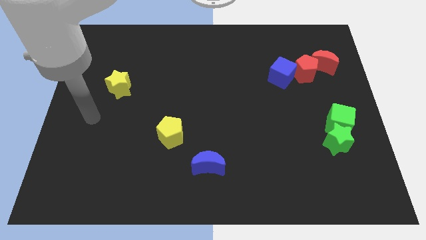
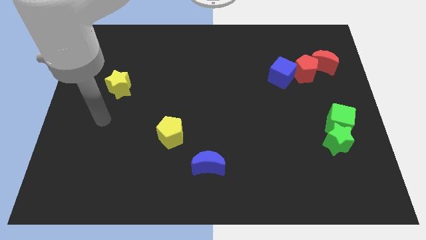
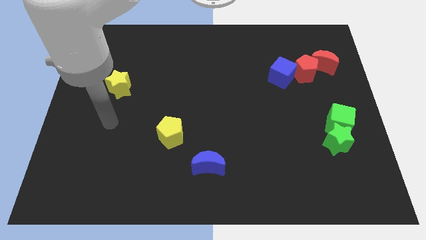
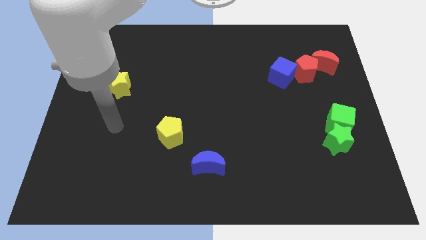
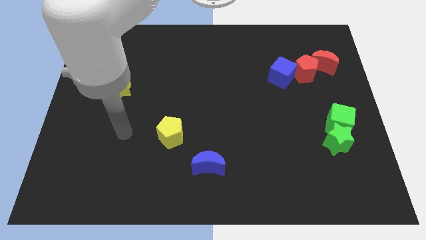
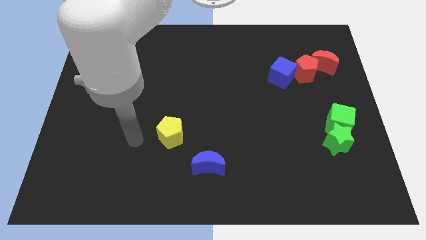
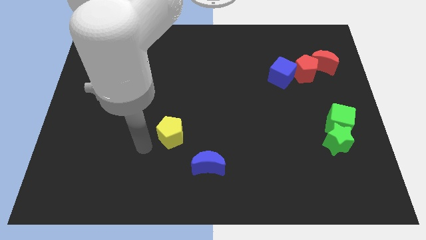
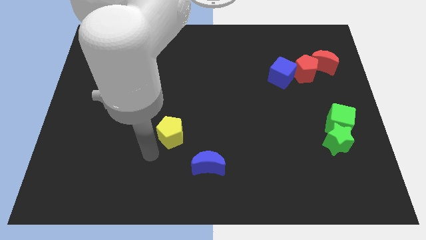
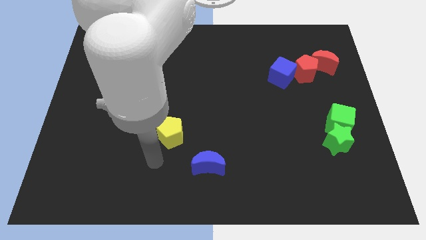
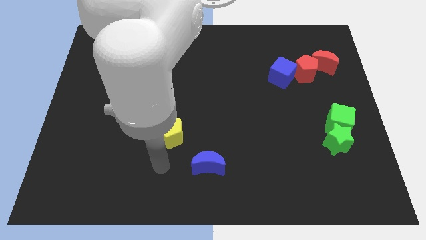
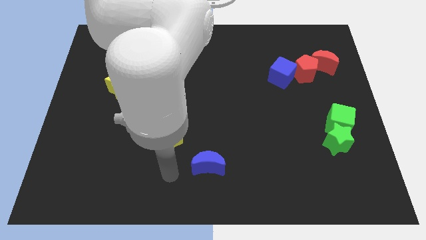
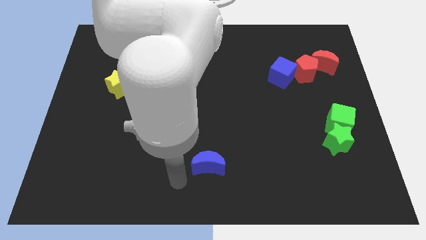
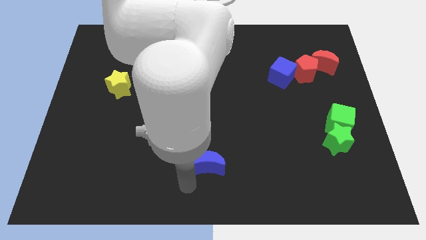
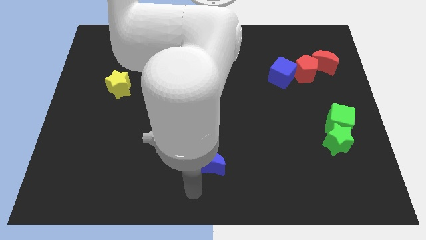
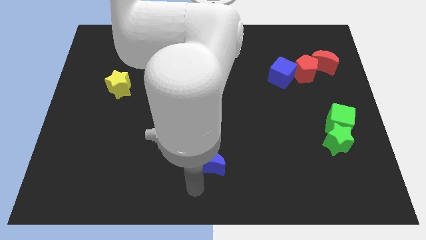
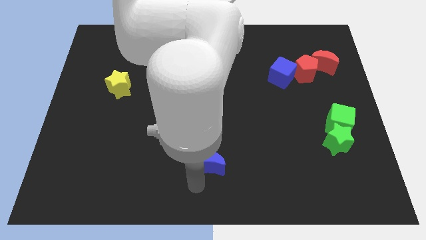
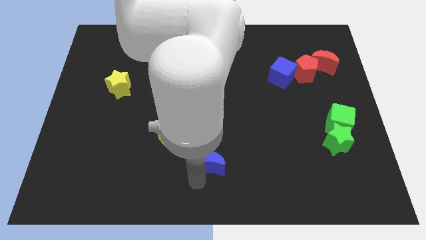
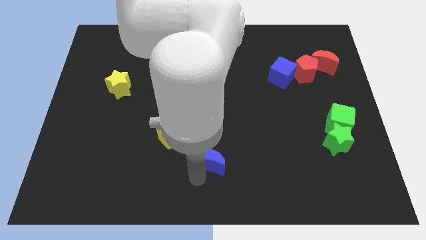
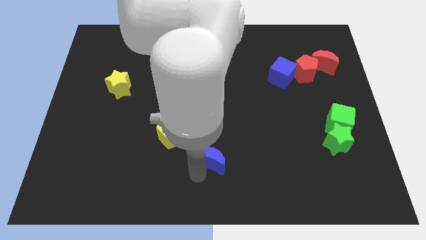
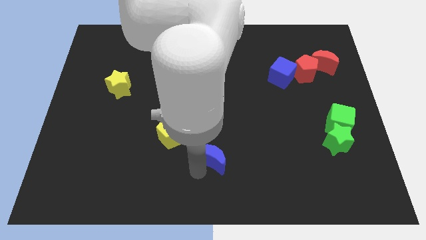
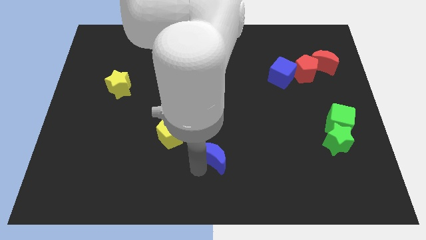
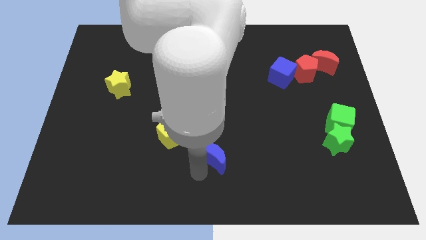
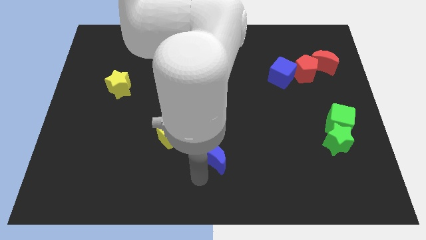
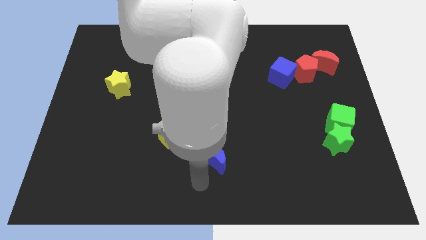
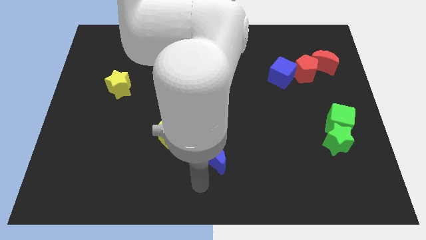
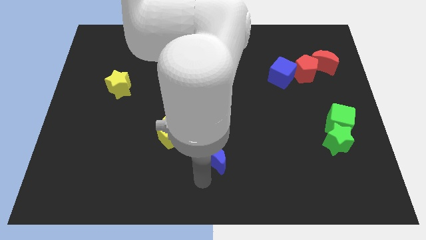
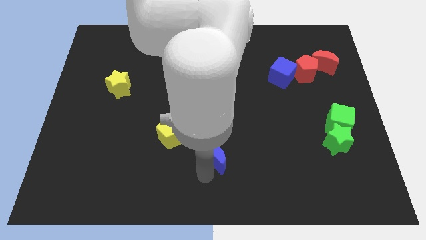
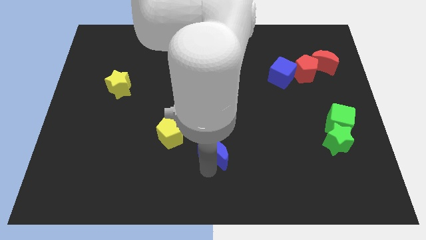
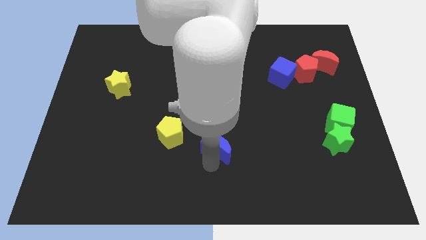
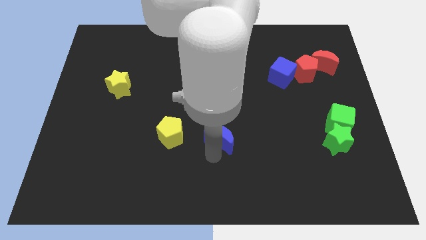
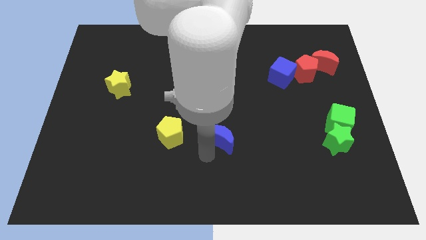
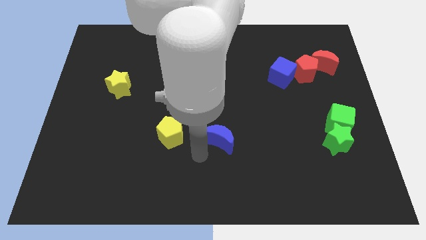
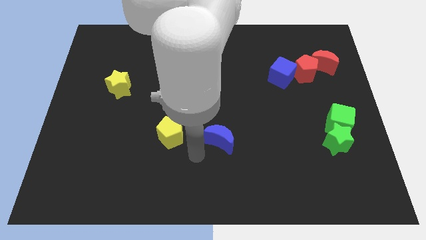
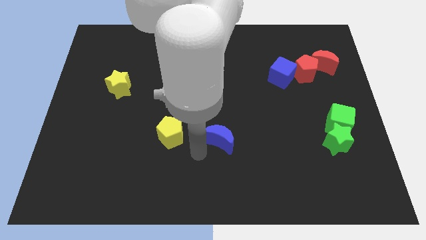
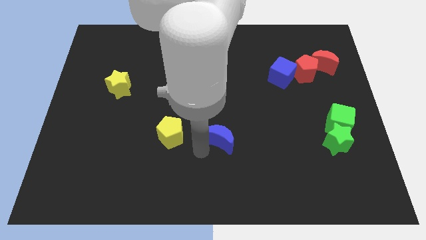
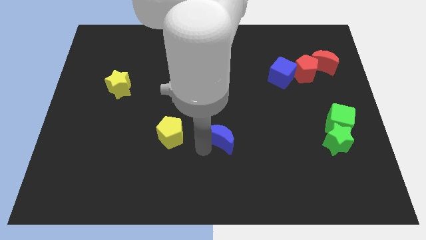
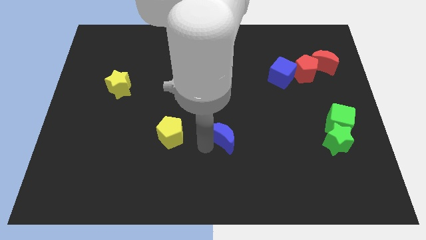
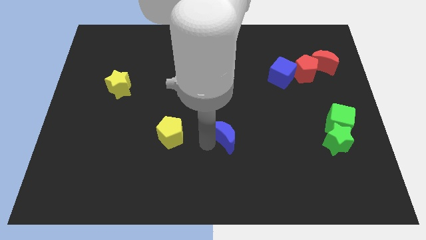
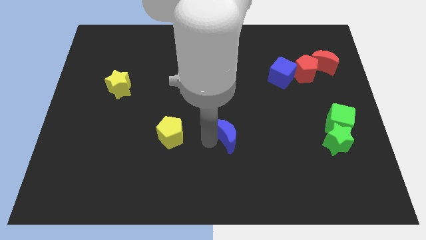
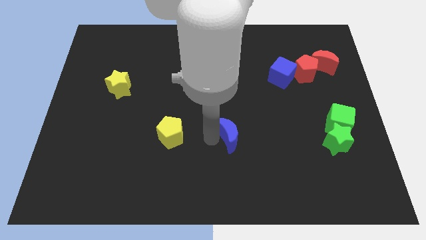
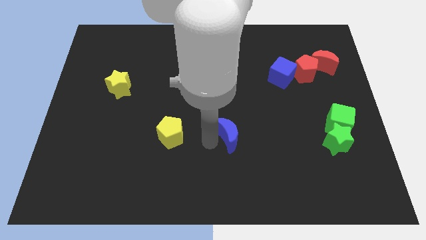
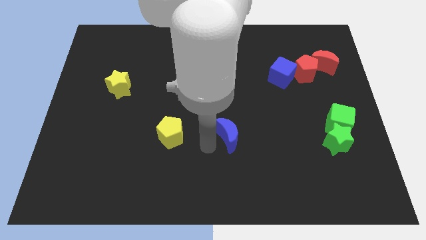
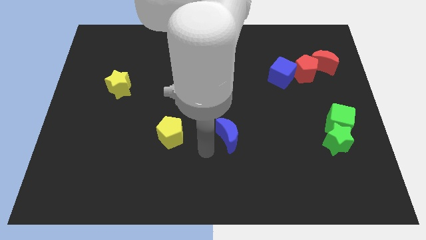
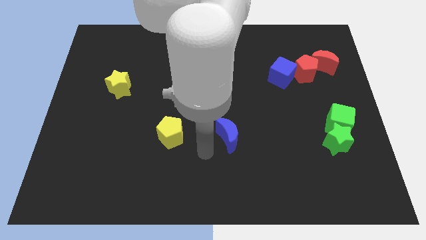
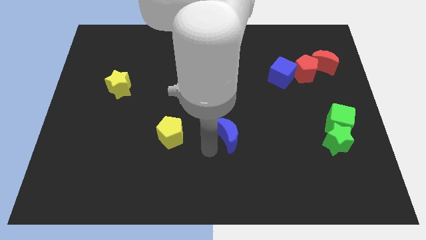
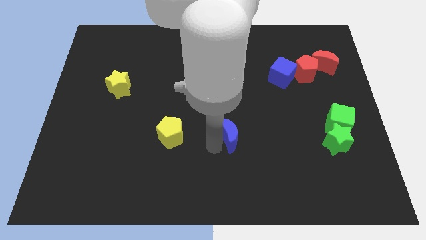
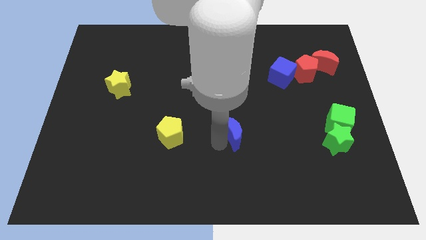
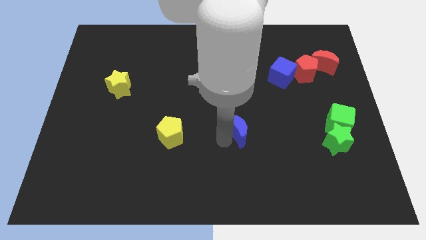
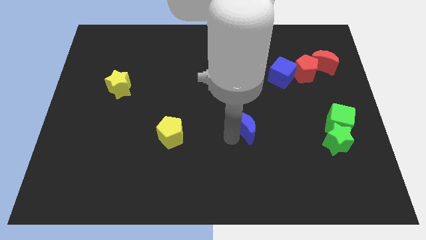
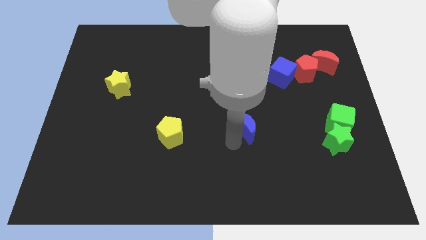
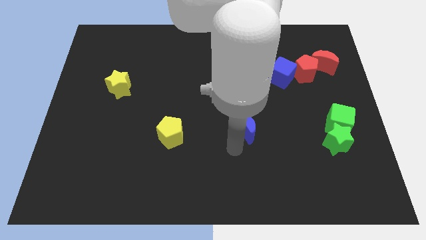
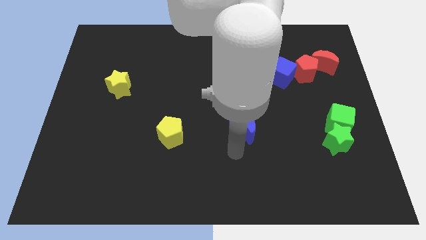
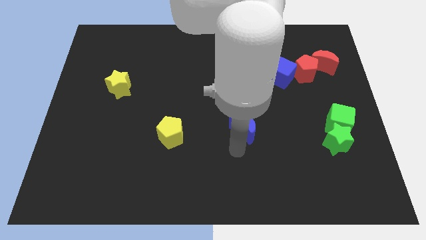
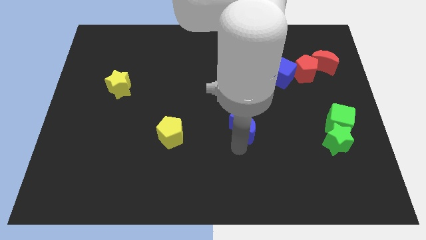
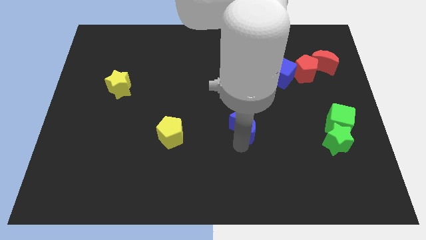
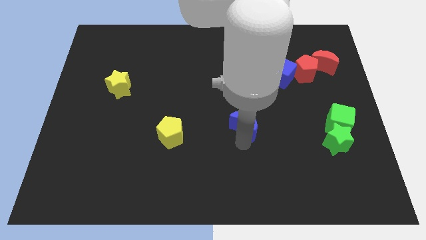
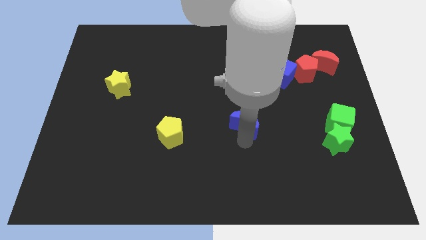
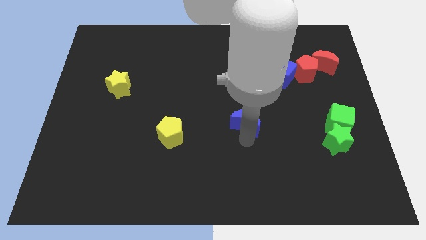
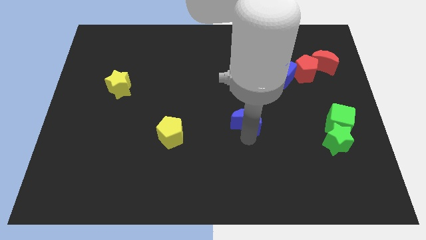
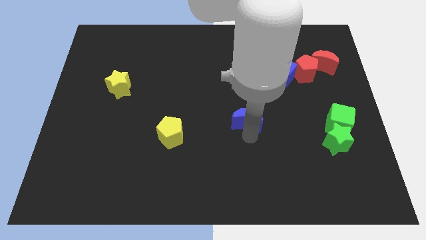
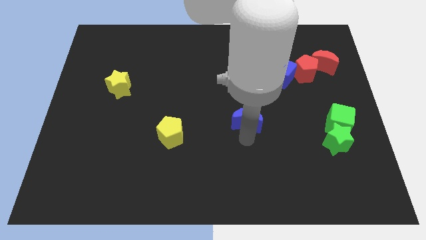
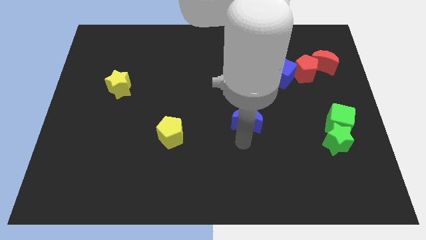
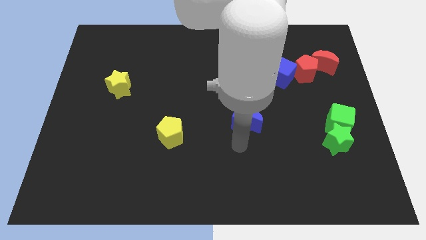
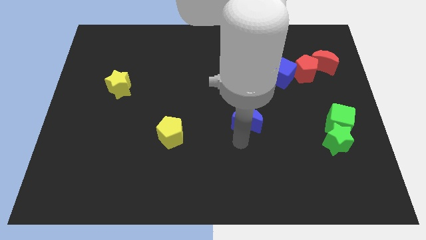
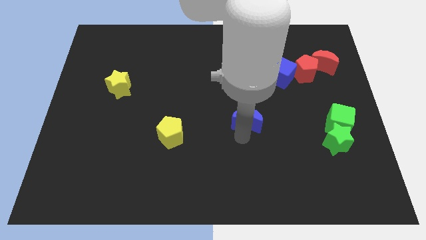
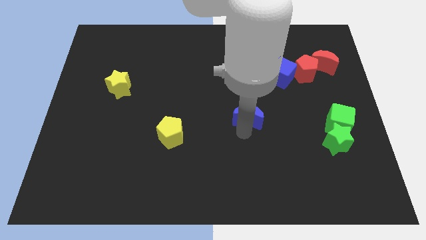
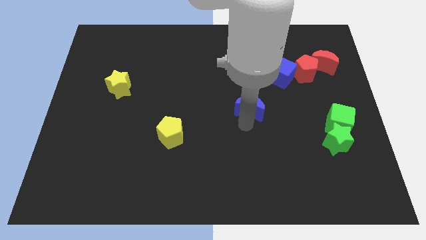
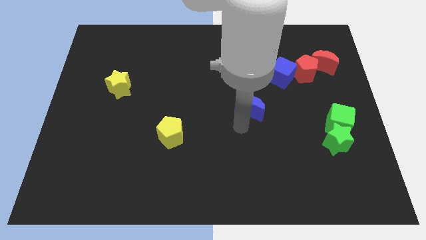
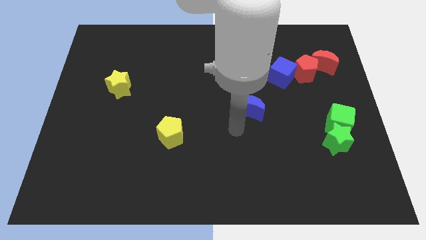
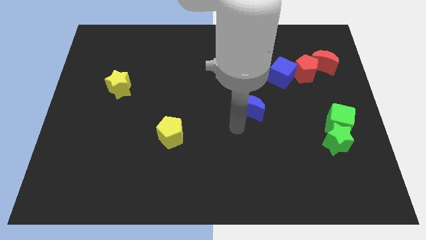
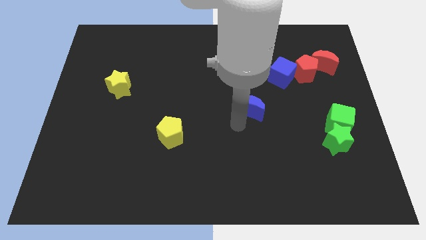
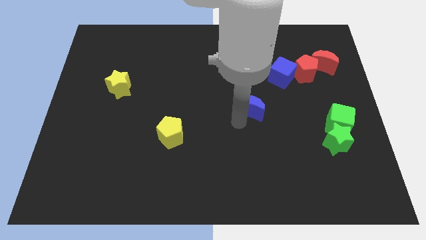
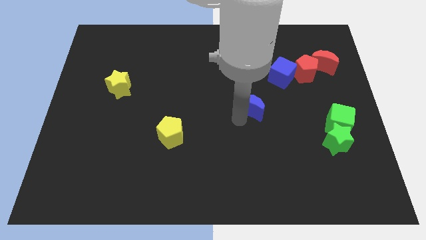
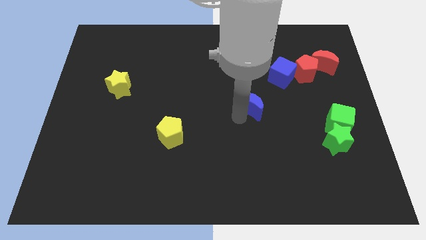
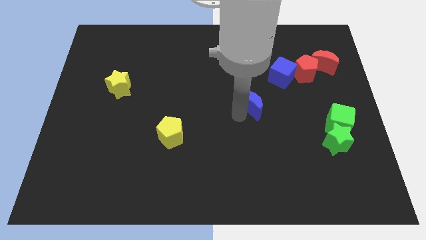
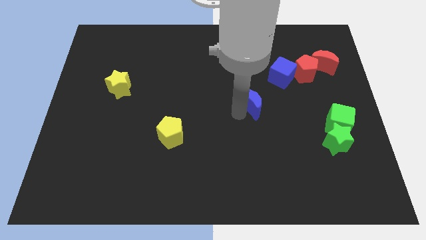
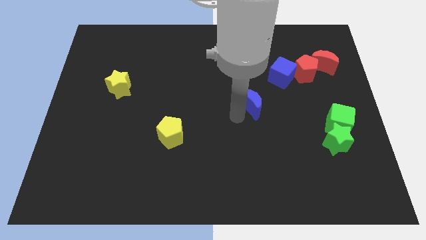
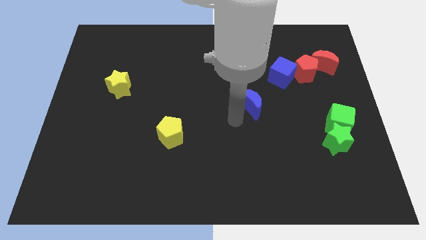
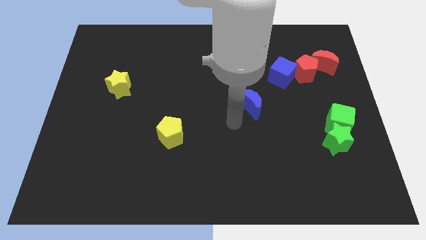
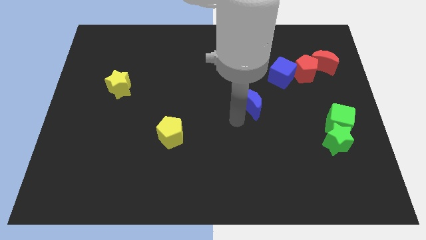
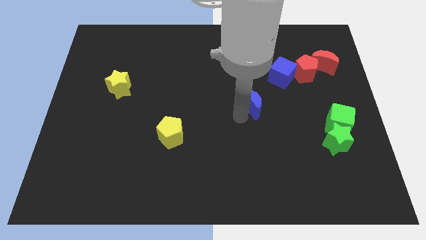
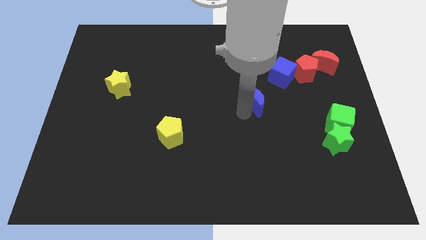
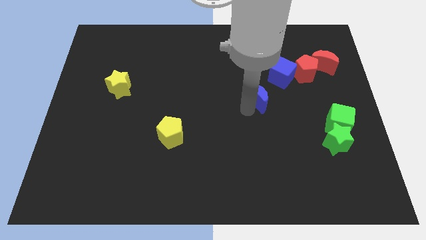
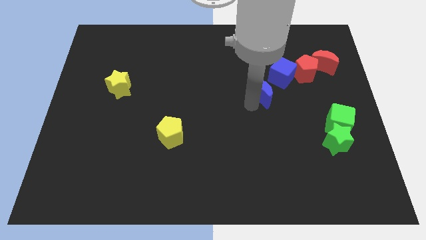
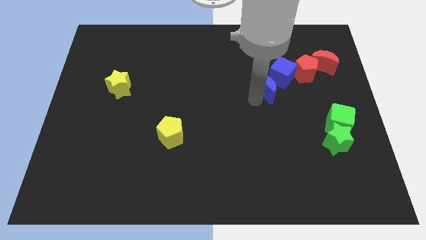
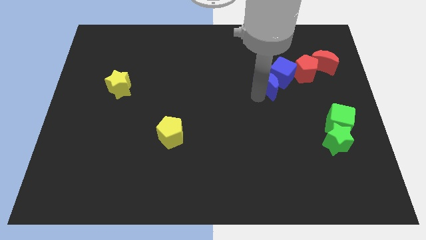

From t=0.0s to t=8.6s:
put the blue moon close to the blue cube
